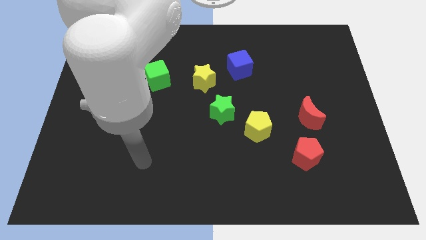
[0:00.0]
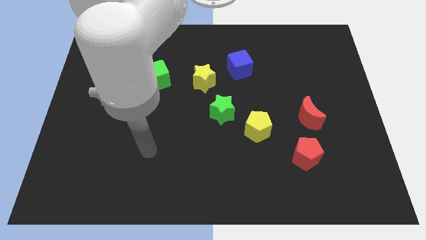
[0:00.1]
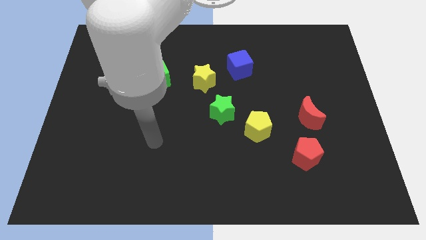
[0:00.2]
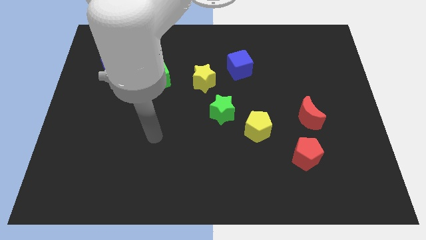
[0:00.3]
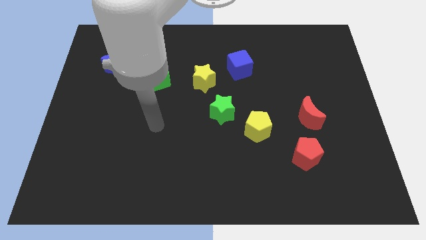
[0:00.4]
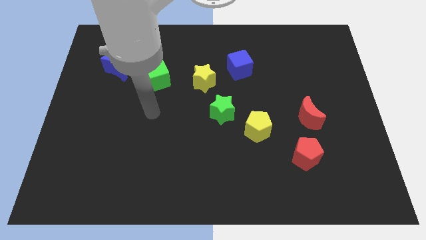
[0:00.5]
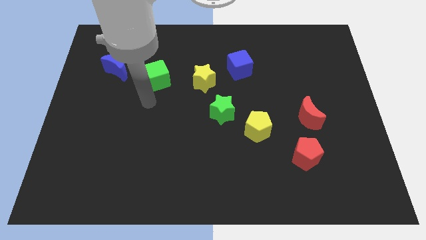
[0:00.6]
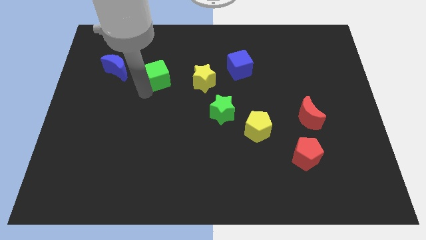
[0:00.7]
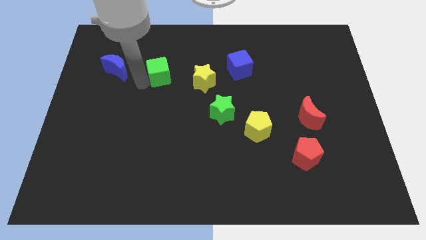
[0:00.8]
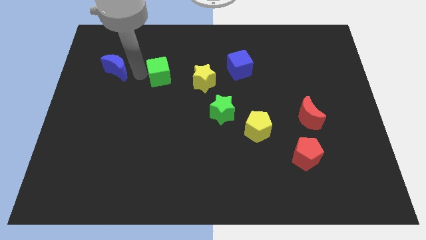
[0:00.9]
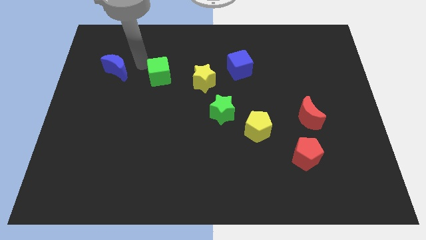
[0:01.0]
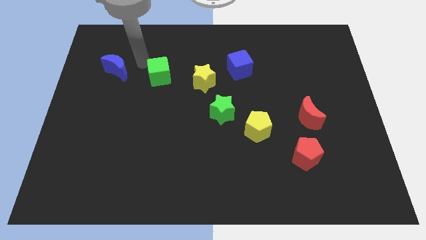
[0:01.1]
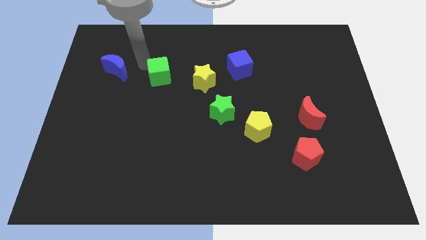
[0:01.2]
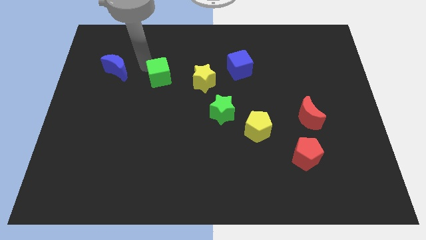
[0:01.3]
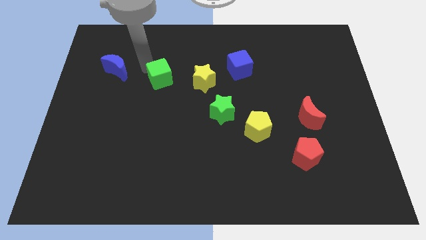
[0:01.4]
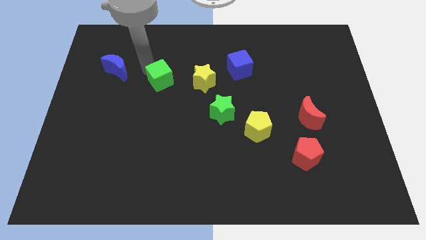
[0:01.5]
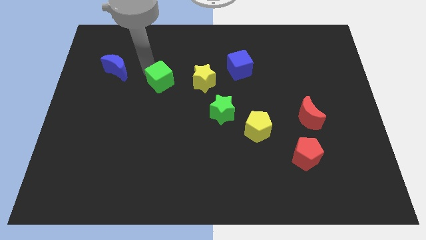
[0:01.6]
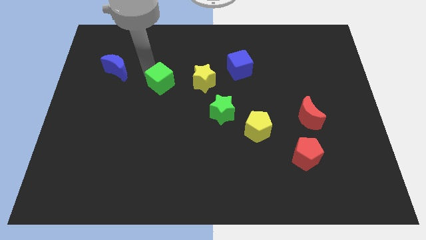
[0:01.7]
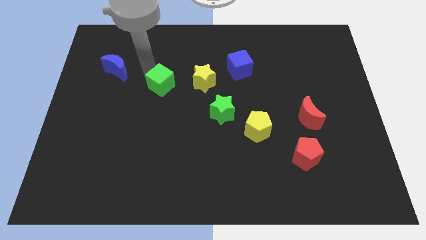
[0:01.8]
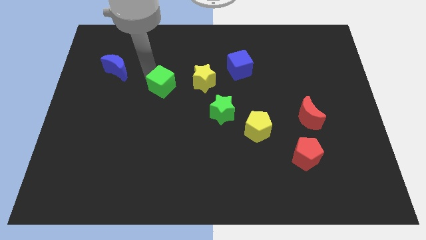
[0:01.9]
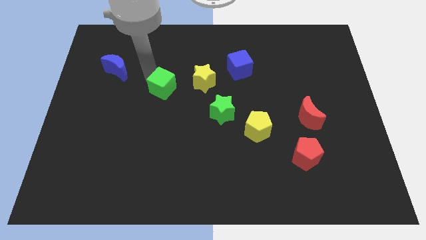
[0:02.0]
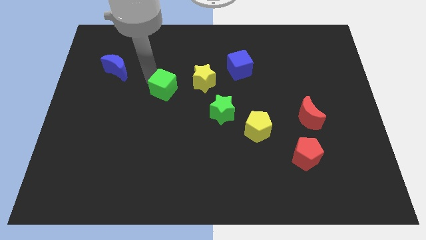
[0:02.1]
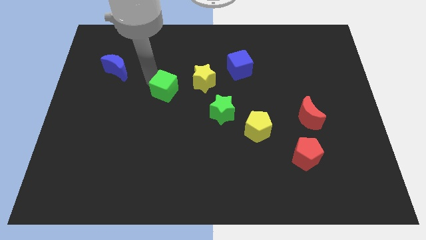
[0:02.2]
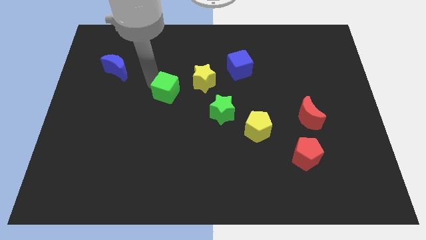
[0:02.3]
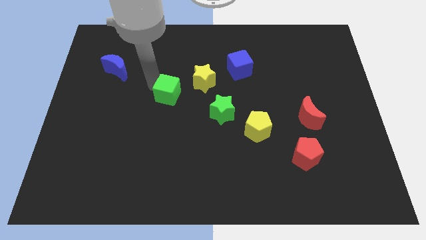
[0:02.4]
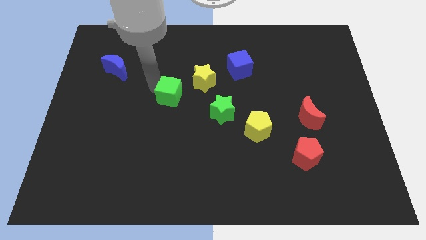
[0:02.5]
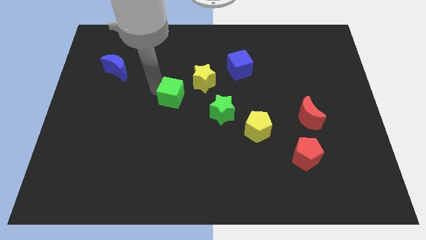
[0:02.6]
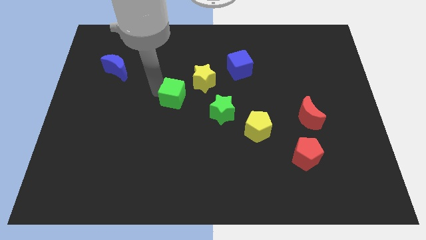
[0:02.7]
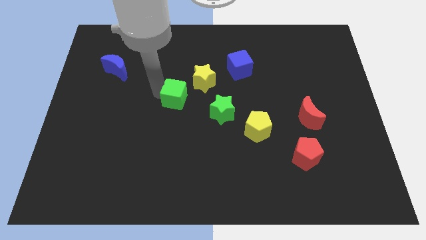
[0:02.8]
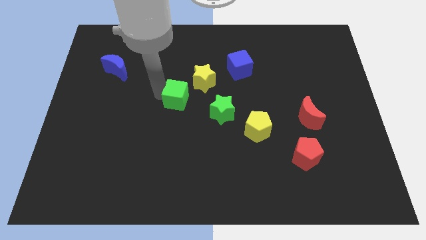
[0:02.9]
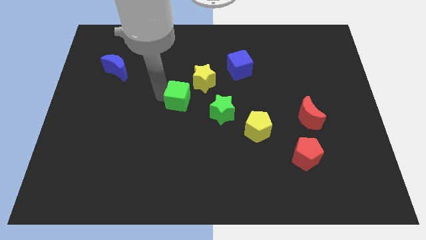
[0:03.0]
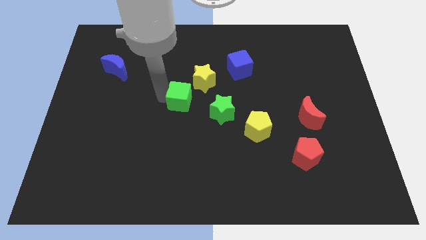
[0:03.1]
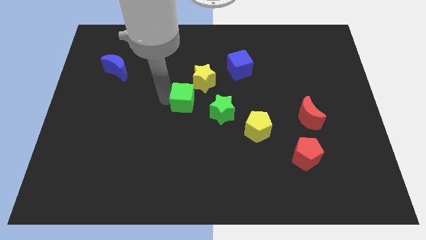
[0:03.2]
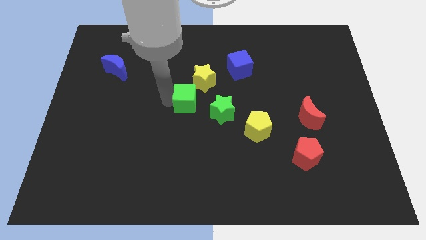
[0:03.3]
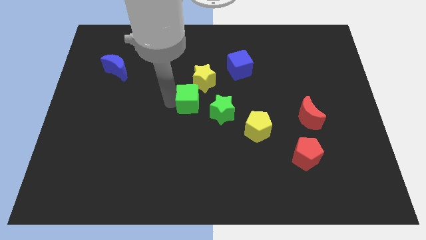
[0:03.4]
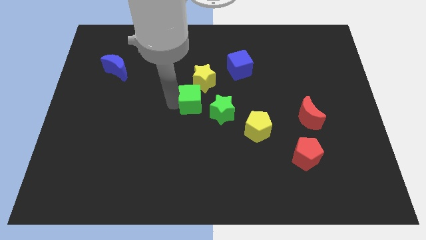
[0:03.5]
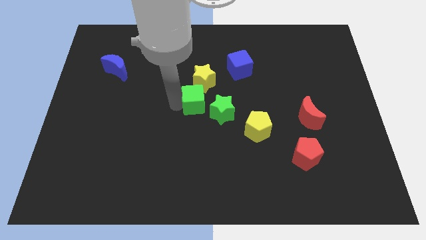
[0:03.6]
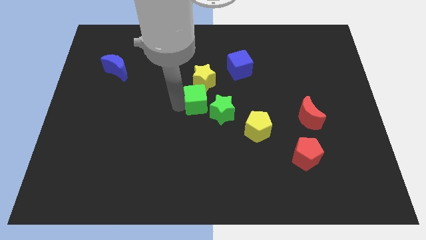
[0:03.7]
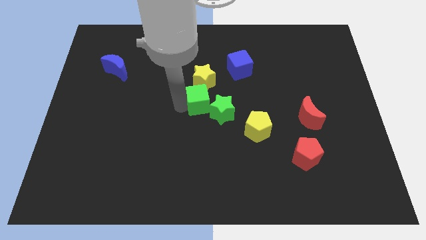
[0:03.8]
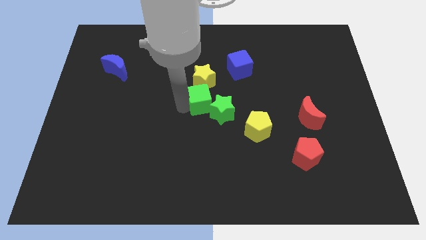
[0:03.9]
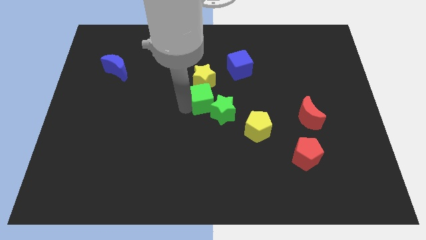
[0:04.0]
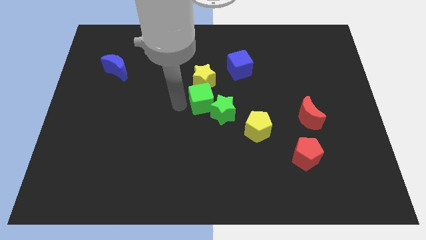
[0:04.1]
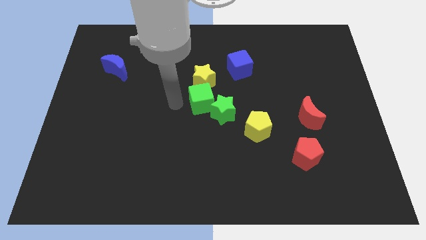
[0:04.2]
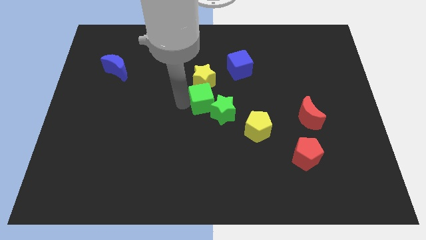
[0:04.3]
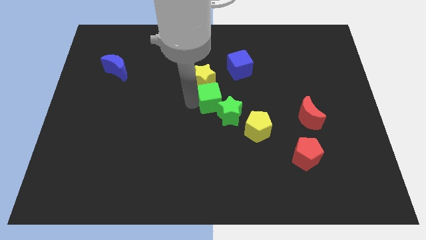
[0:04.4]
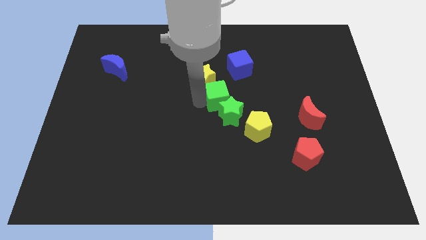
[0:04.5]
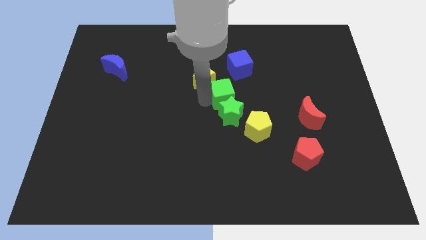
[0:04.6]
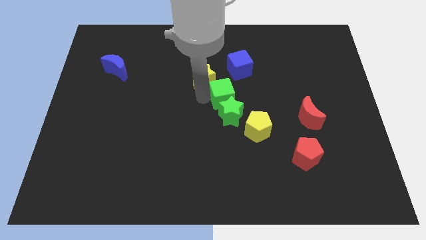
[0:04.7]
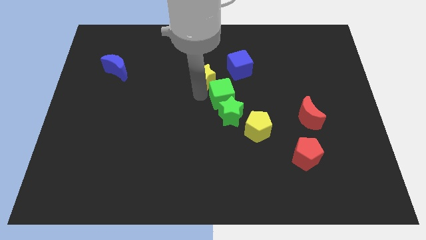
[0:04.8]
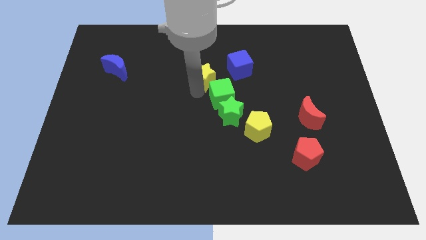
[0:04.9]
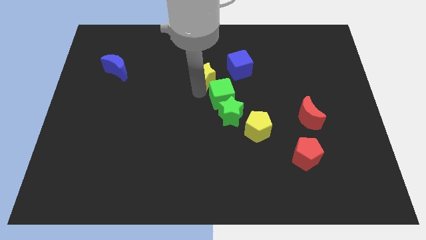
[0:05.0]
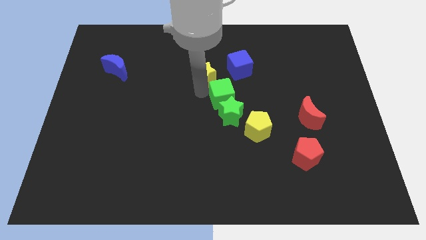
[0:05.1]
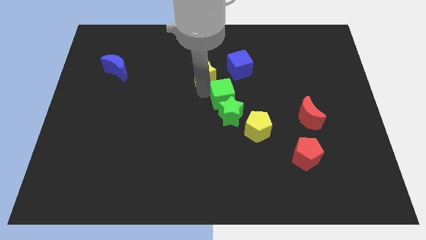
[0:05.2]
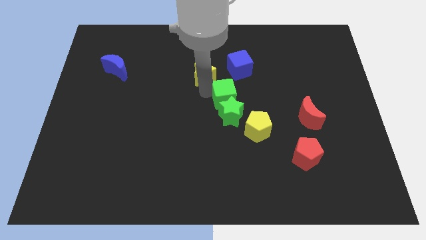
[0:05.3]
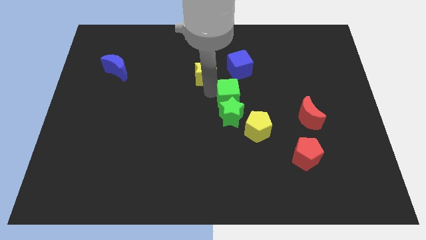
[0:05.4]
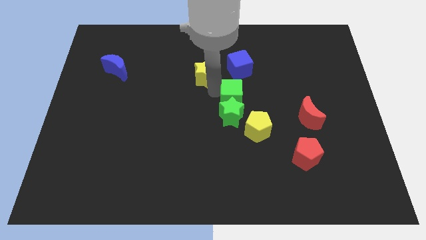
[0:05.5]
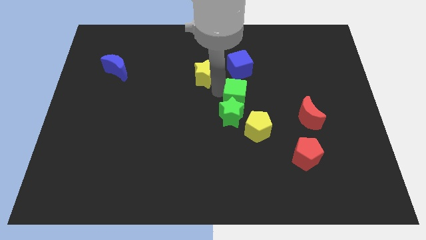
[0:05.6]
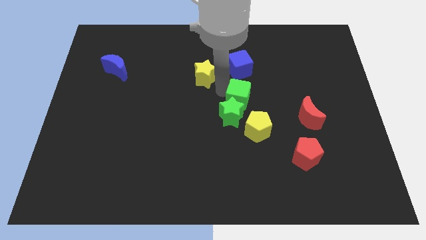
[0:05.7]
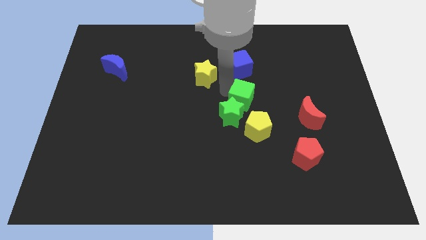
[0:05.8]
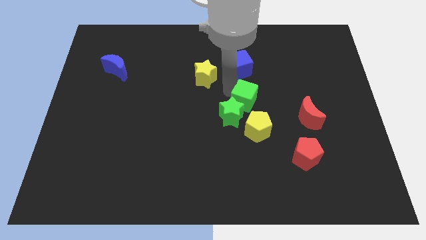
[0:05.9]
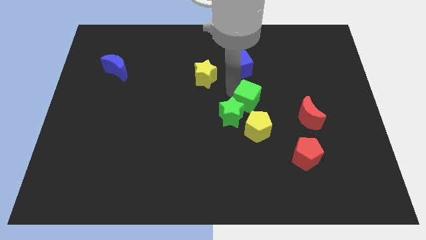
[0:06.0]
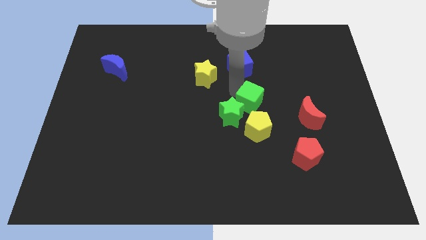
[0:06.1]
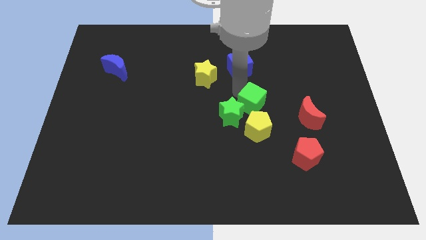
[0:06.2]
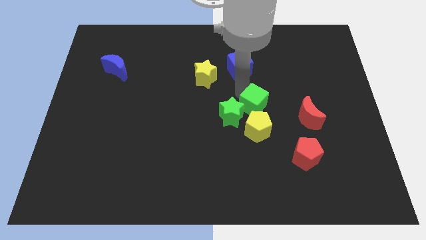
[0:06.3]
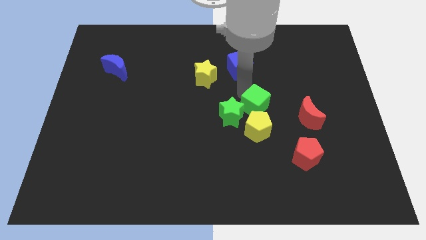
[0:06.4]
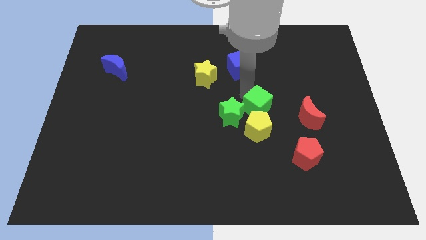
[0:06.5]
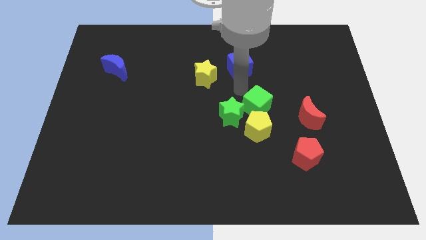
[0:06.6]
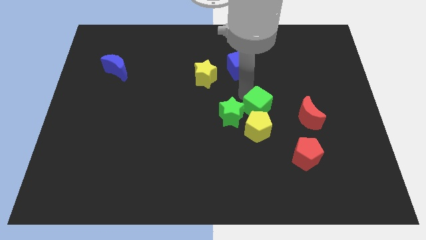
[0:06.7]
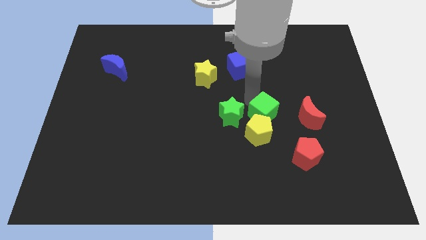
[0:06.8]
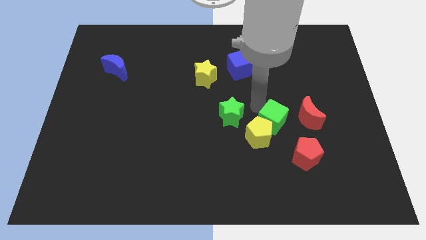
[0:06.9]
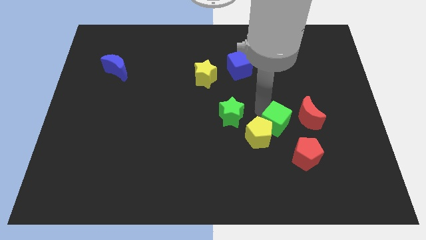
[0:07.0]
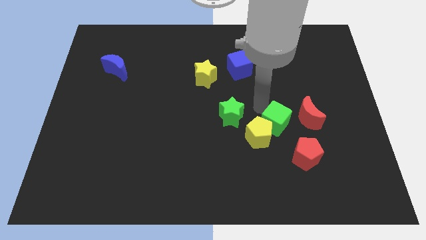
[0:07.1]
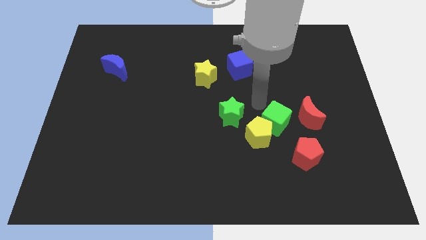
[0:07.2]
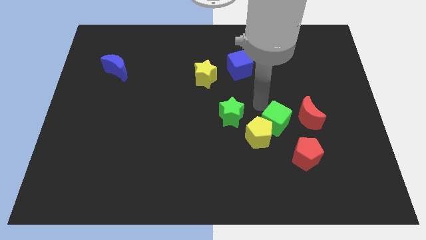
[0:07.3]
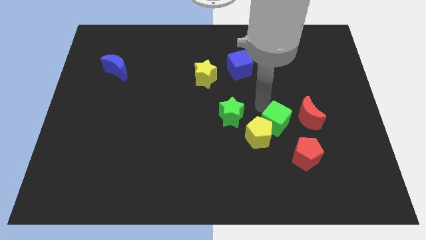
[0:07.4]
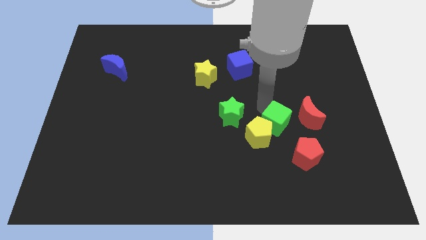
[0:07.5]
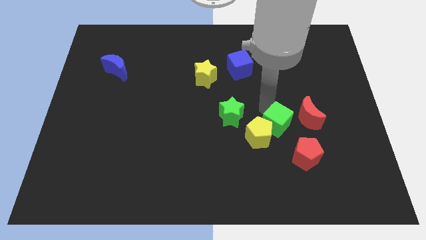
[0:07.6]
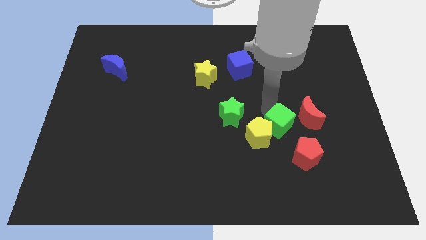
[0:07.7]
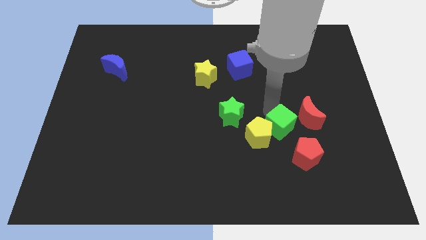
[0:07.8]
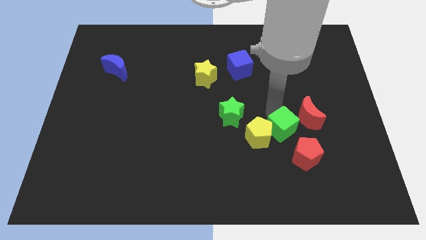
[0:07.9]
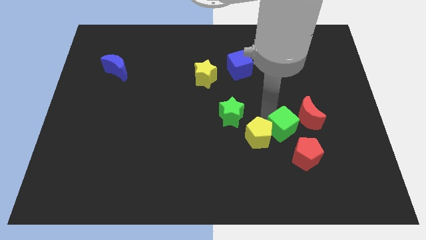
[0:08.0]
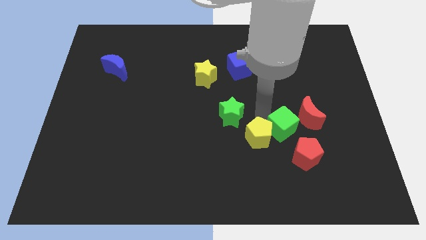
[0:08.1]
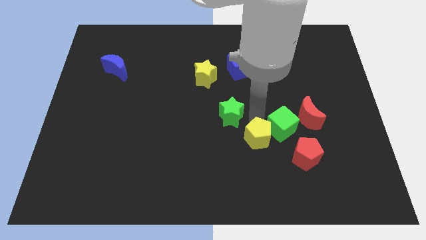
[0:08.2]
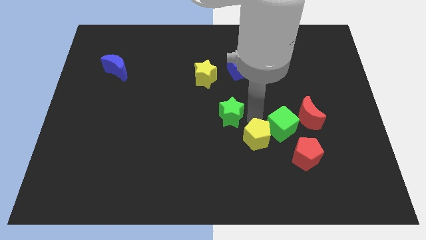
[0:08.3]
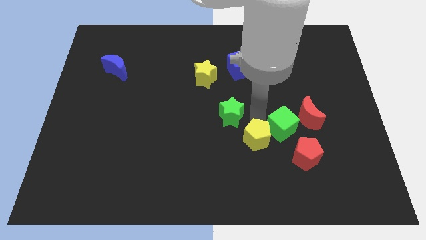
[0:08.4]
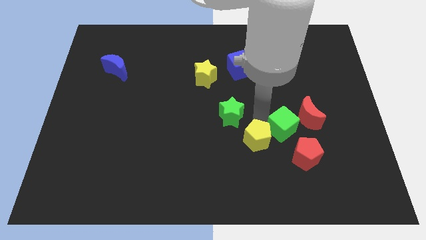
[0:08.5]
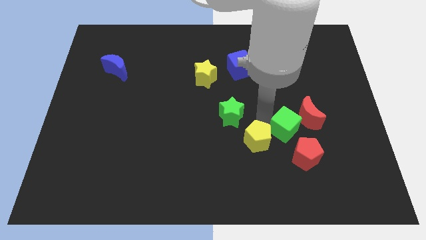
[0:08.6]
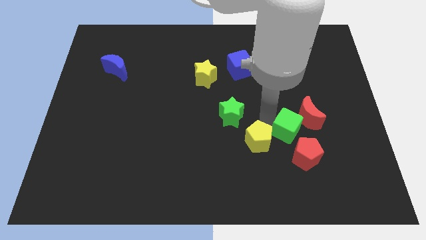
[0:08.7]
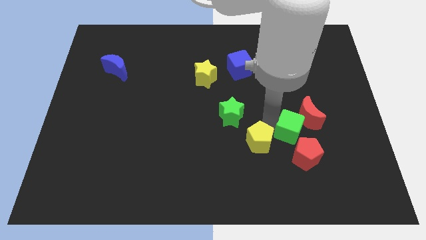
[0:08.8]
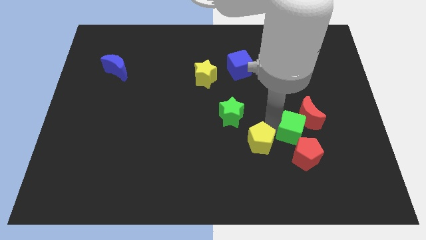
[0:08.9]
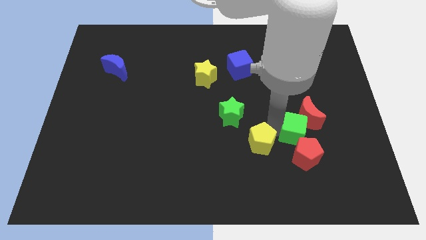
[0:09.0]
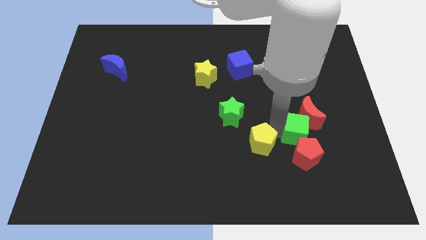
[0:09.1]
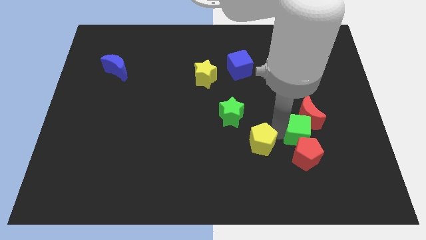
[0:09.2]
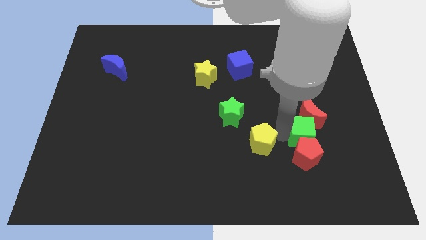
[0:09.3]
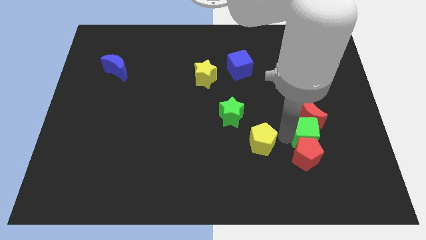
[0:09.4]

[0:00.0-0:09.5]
push the green cube to the bottom right side of the red moon
